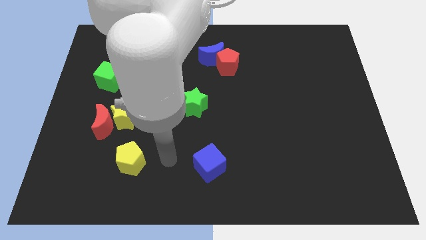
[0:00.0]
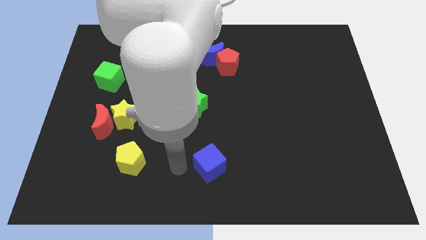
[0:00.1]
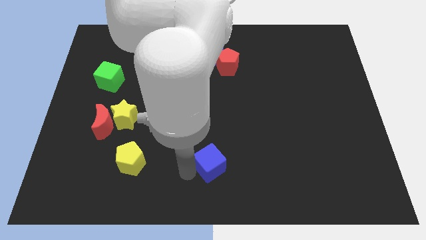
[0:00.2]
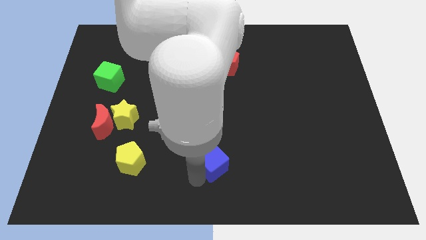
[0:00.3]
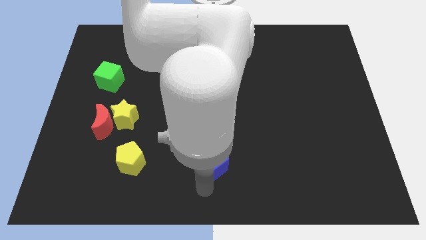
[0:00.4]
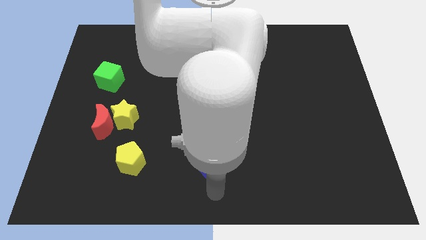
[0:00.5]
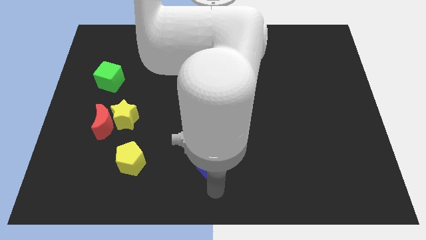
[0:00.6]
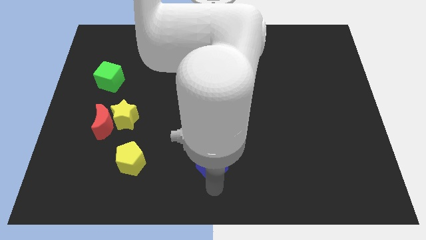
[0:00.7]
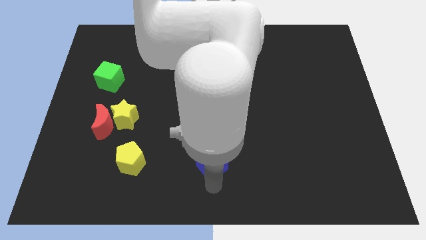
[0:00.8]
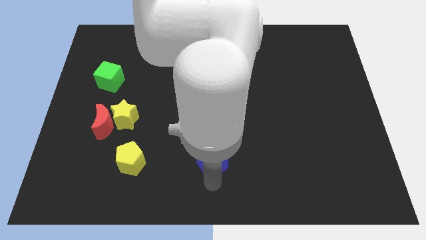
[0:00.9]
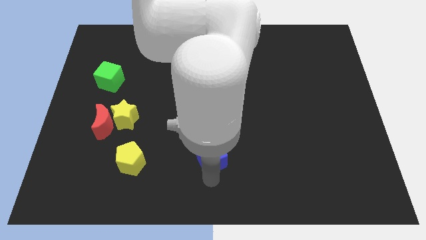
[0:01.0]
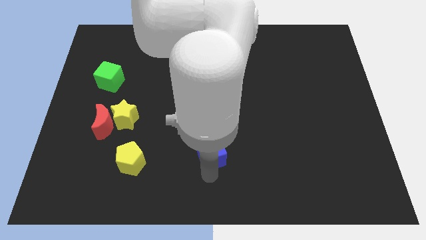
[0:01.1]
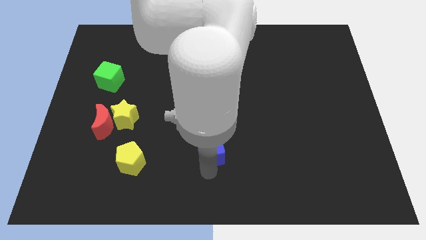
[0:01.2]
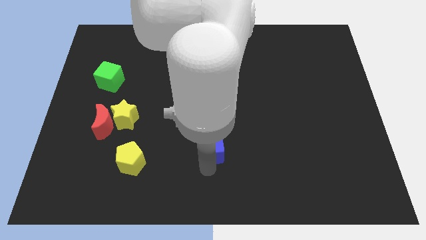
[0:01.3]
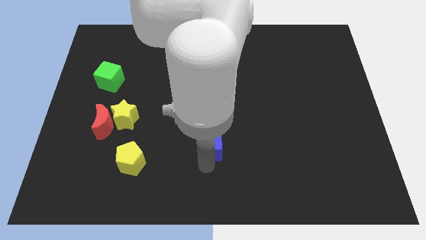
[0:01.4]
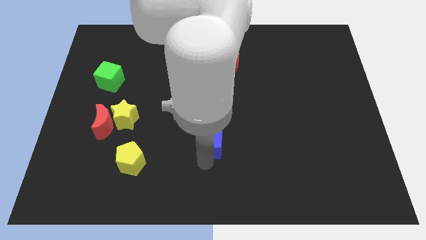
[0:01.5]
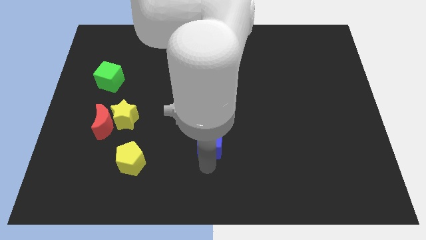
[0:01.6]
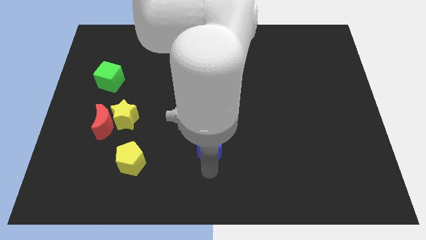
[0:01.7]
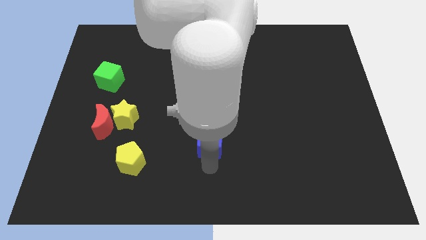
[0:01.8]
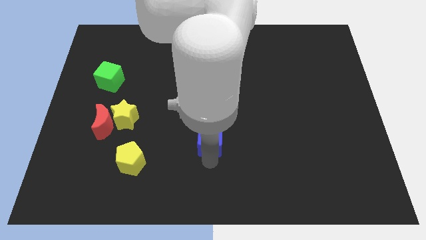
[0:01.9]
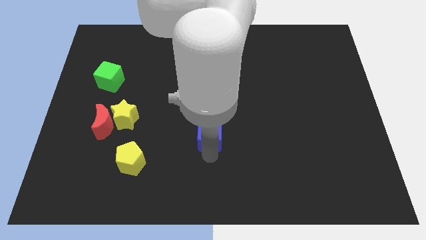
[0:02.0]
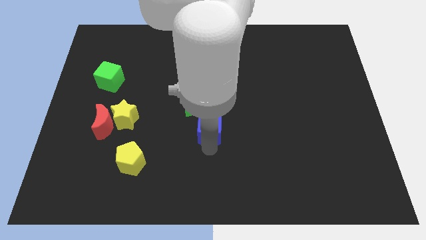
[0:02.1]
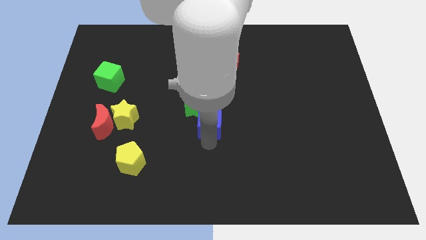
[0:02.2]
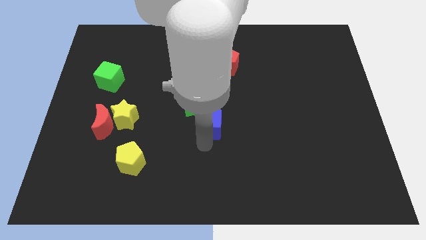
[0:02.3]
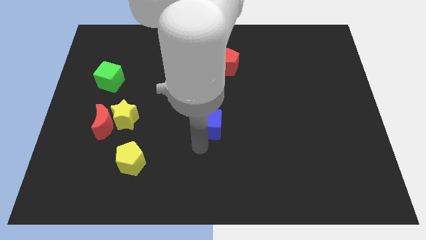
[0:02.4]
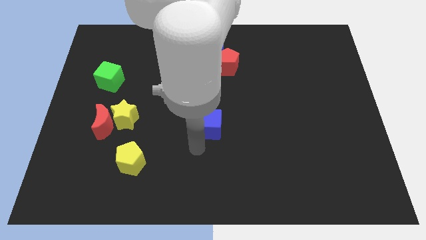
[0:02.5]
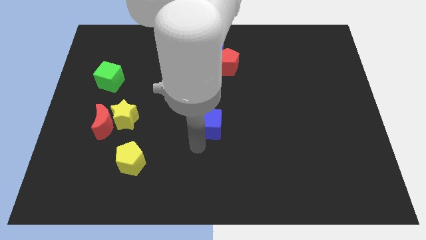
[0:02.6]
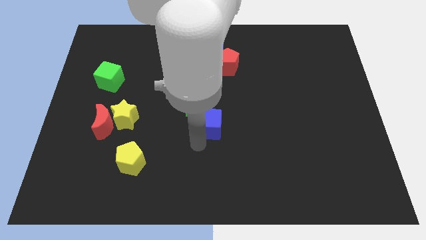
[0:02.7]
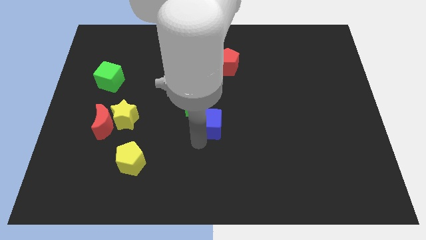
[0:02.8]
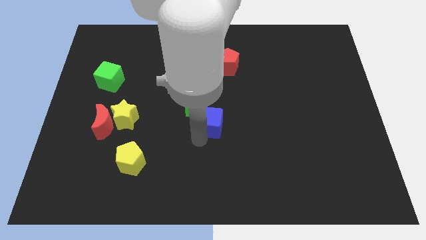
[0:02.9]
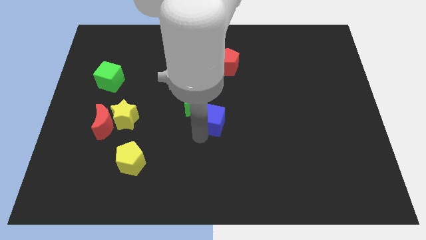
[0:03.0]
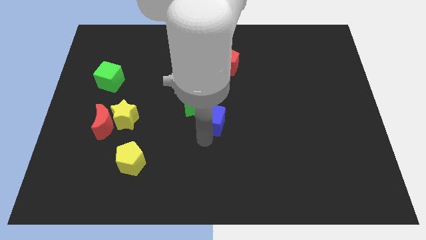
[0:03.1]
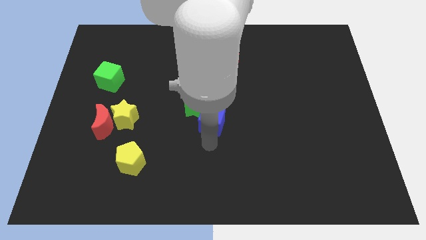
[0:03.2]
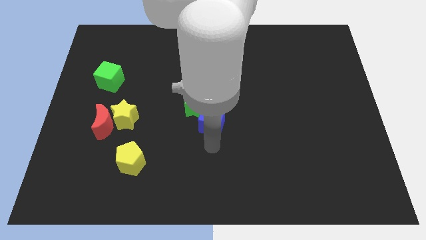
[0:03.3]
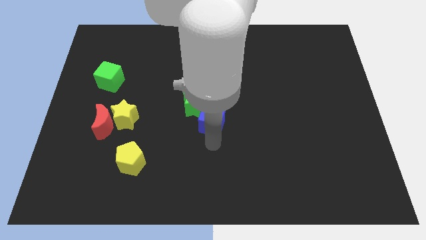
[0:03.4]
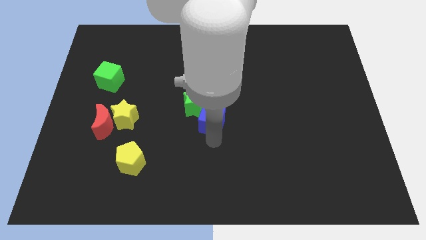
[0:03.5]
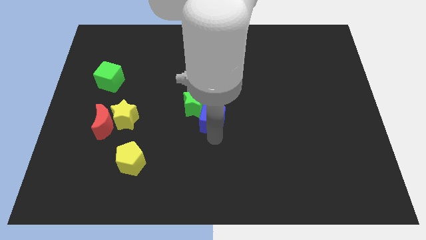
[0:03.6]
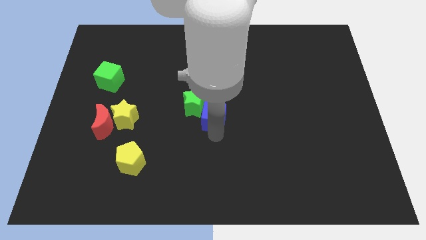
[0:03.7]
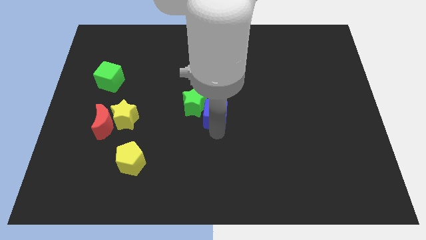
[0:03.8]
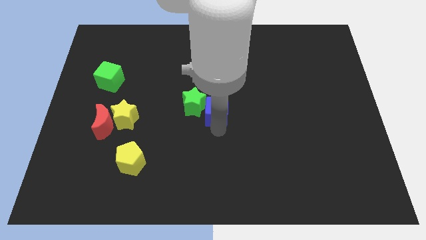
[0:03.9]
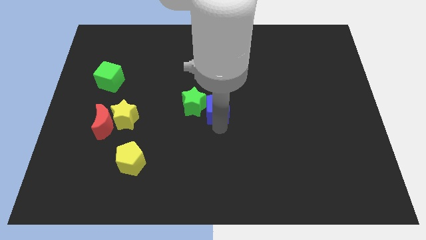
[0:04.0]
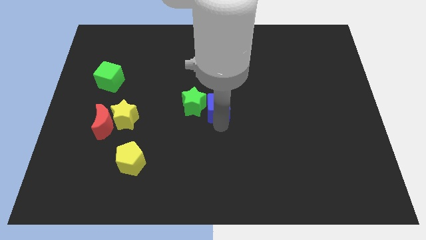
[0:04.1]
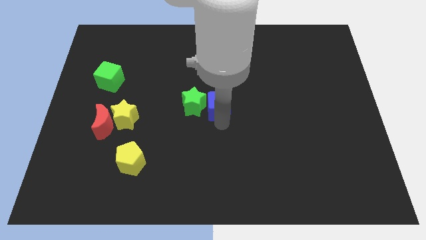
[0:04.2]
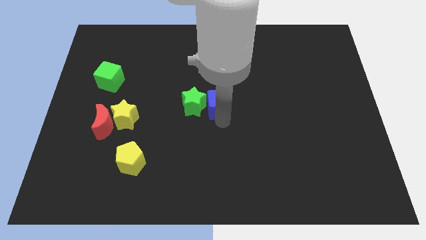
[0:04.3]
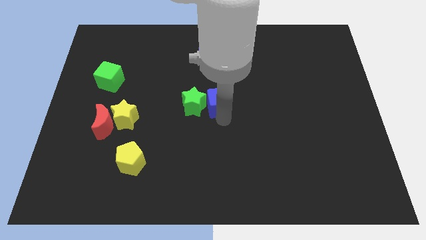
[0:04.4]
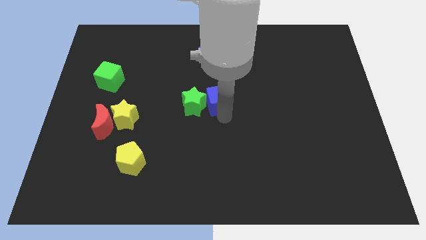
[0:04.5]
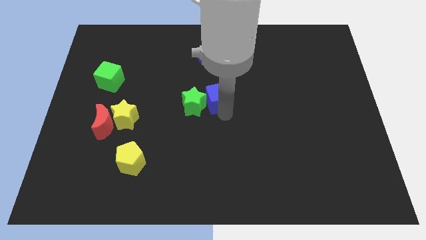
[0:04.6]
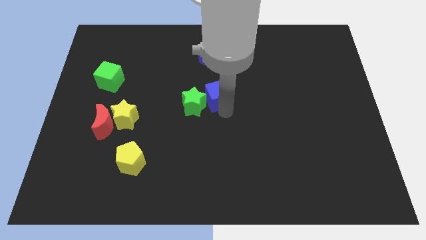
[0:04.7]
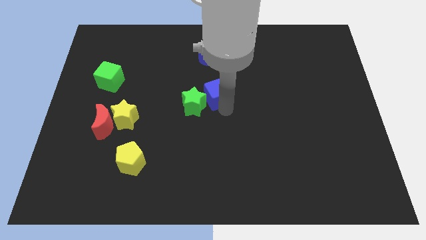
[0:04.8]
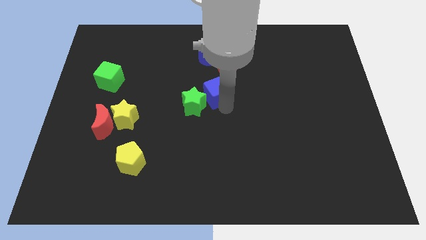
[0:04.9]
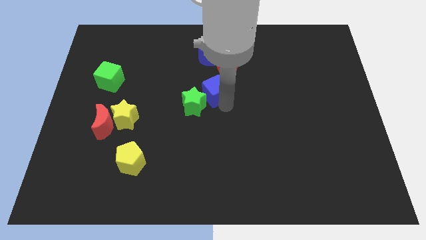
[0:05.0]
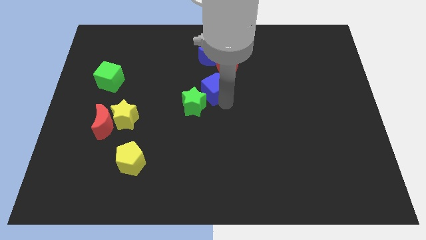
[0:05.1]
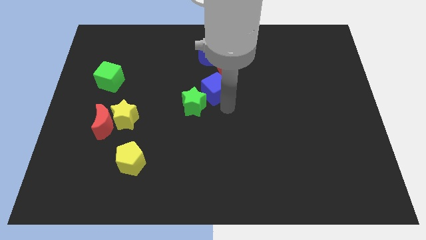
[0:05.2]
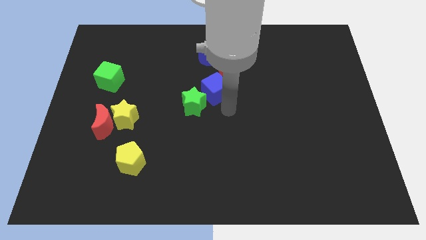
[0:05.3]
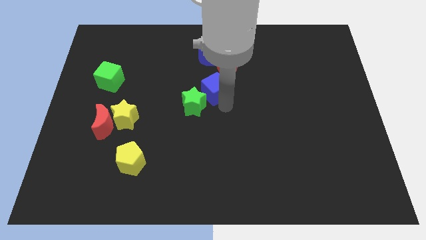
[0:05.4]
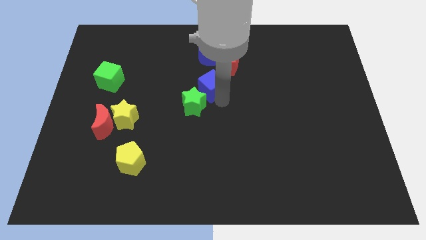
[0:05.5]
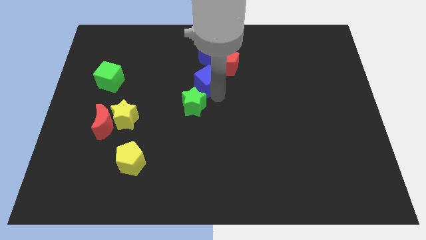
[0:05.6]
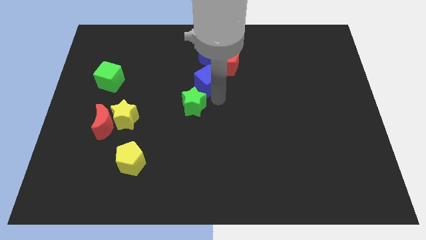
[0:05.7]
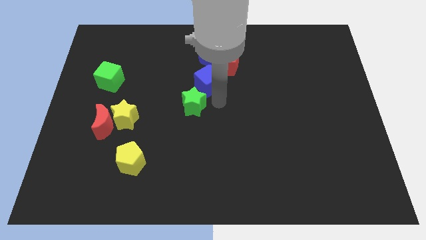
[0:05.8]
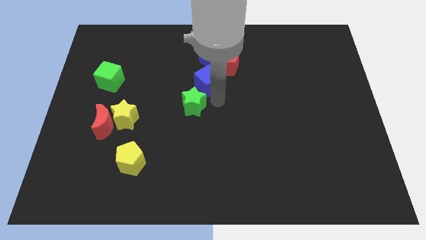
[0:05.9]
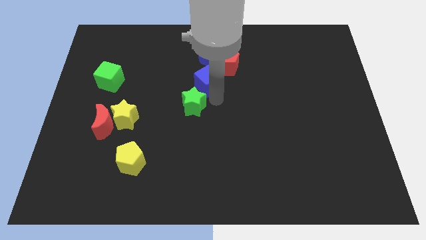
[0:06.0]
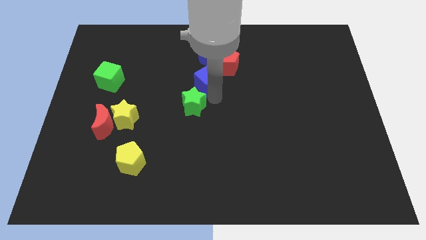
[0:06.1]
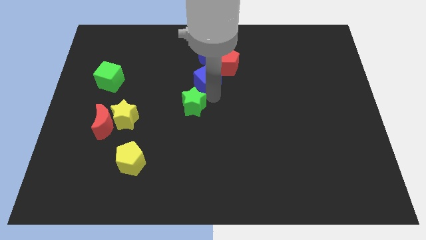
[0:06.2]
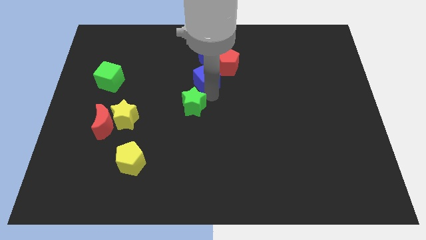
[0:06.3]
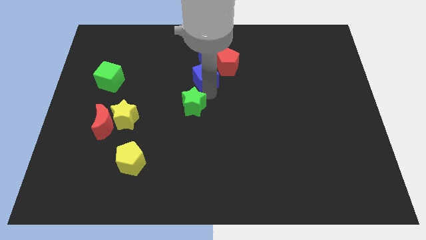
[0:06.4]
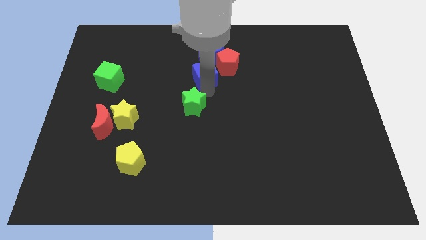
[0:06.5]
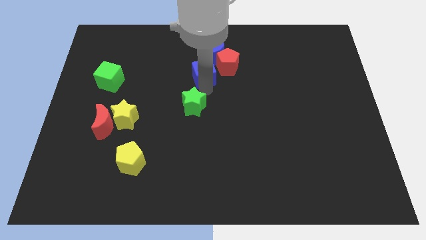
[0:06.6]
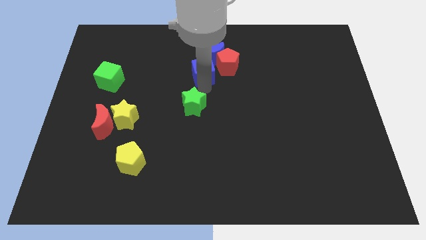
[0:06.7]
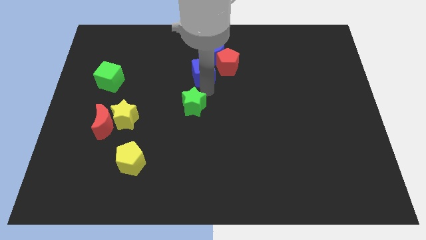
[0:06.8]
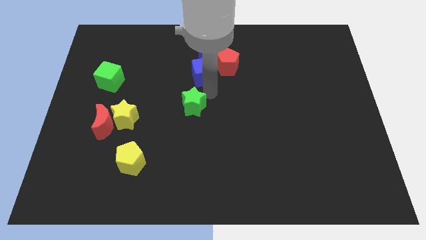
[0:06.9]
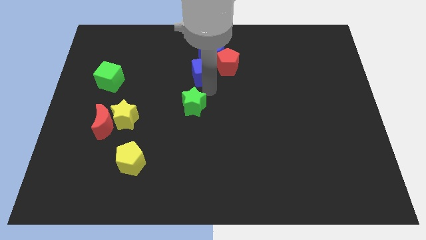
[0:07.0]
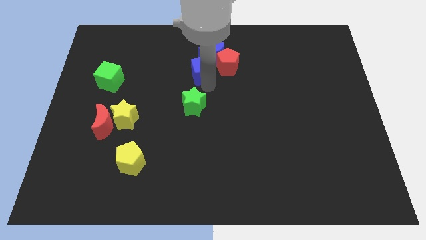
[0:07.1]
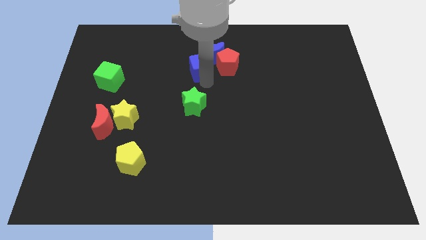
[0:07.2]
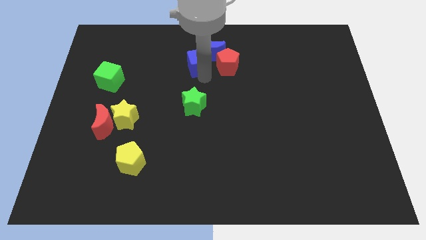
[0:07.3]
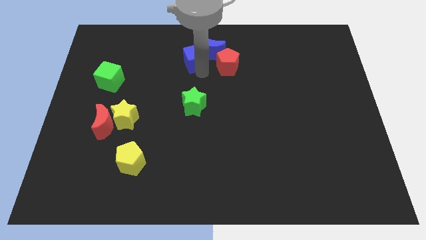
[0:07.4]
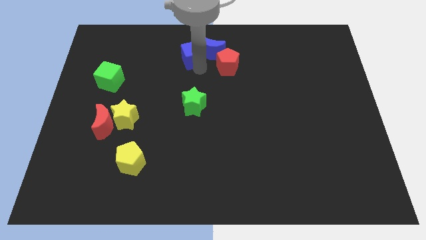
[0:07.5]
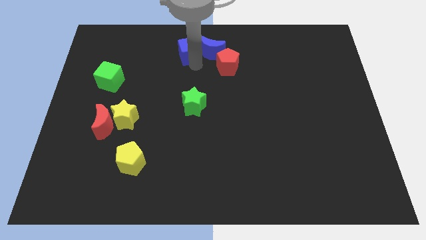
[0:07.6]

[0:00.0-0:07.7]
move the blue cube to the top

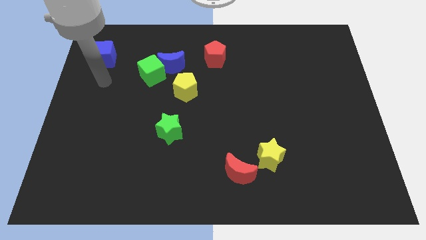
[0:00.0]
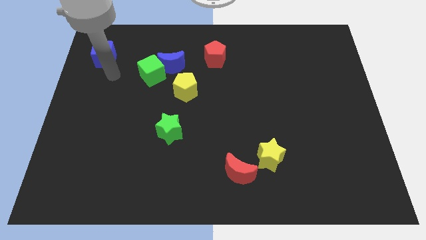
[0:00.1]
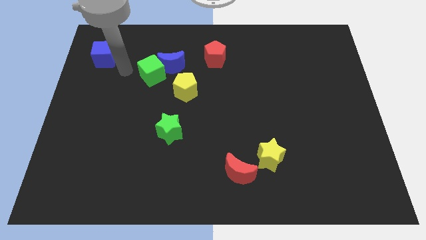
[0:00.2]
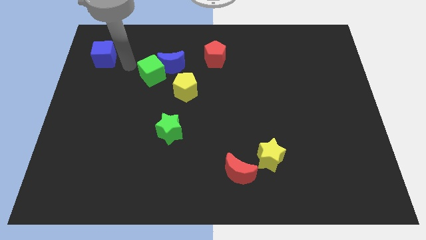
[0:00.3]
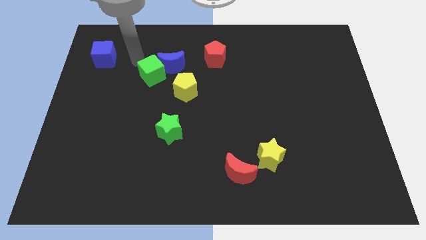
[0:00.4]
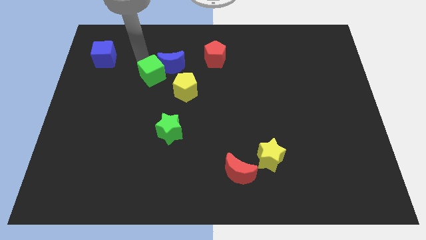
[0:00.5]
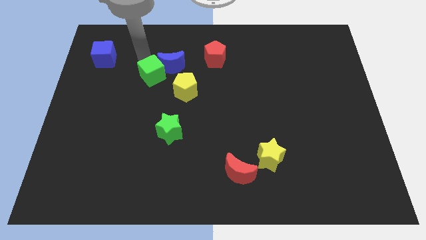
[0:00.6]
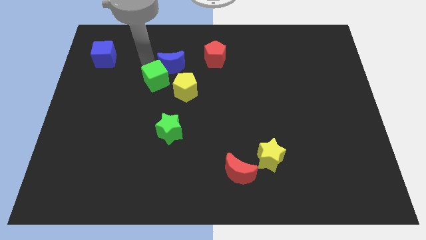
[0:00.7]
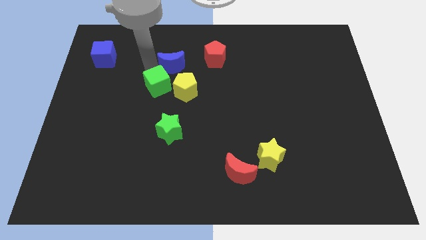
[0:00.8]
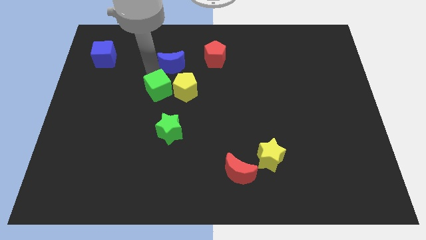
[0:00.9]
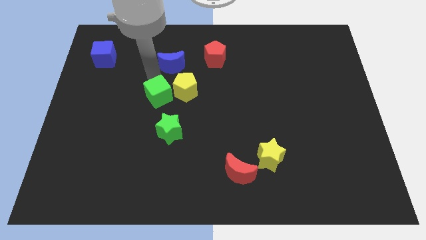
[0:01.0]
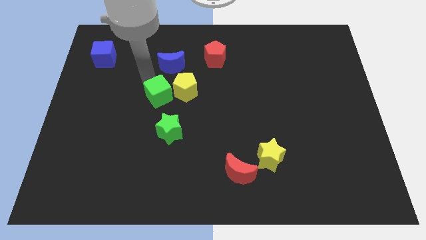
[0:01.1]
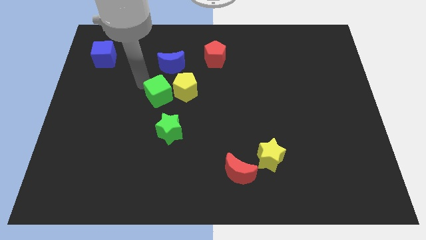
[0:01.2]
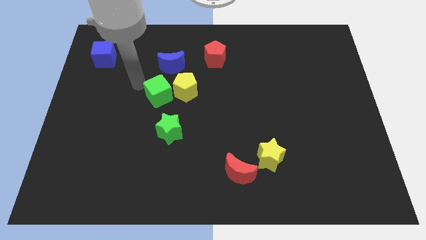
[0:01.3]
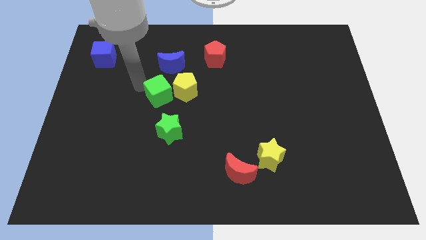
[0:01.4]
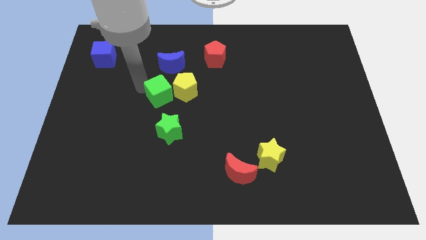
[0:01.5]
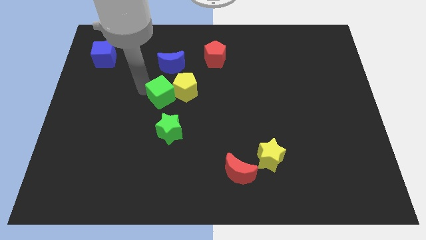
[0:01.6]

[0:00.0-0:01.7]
move the green cube to the center of the board
